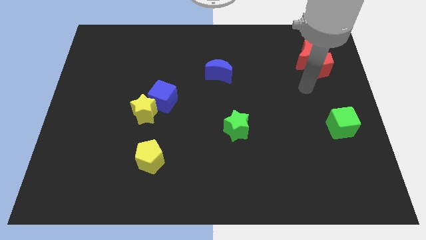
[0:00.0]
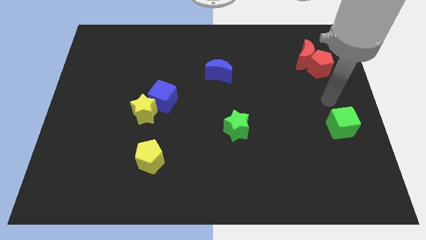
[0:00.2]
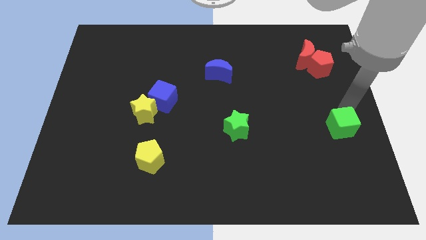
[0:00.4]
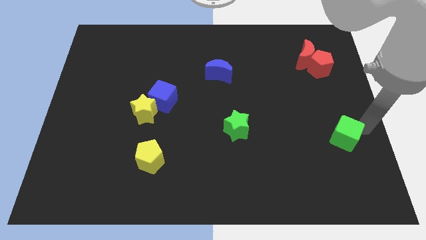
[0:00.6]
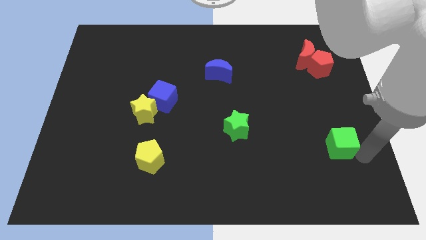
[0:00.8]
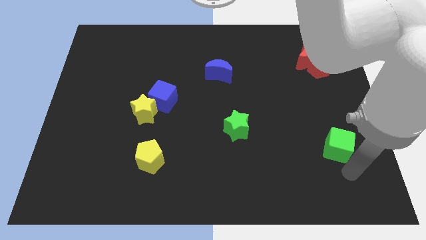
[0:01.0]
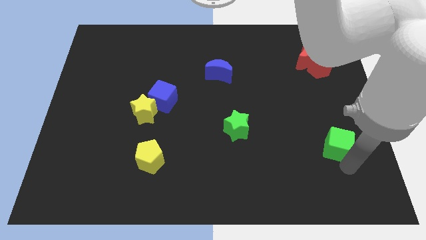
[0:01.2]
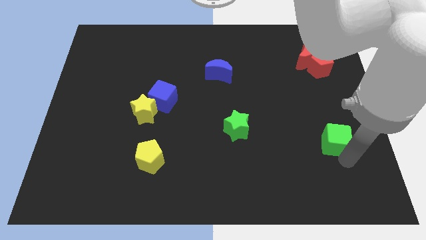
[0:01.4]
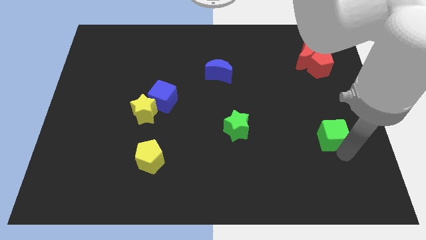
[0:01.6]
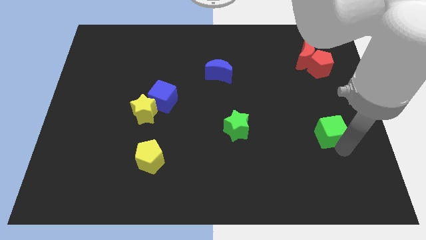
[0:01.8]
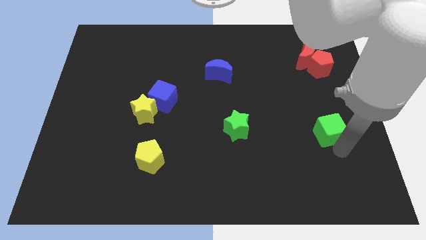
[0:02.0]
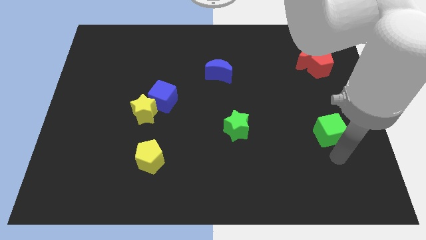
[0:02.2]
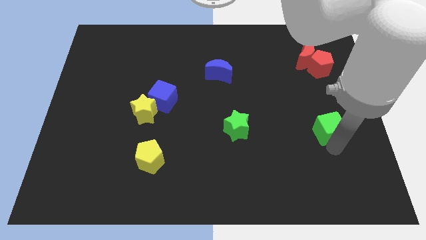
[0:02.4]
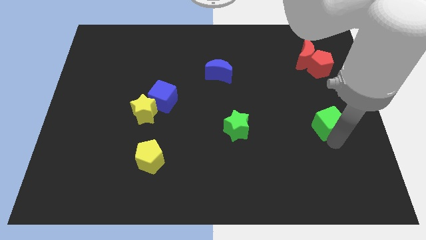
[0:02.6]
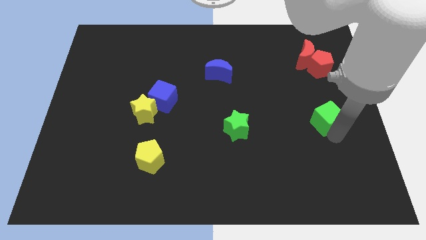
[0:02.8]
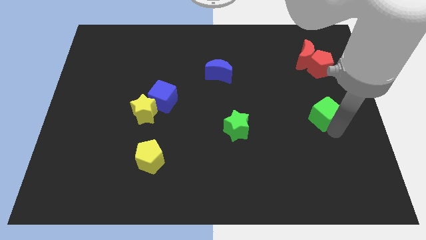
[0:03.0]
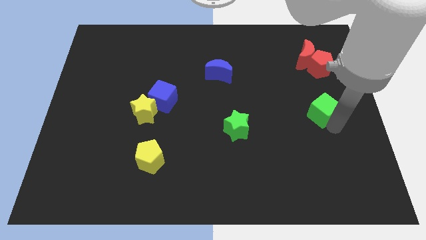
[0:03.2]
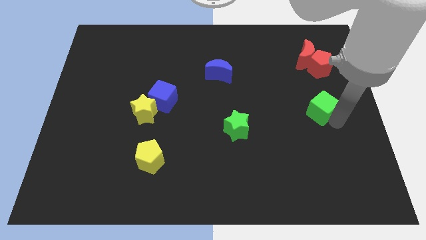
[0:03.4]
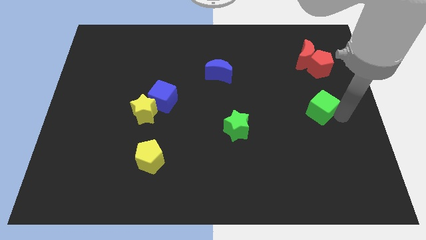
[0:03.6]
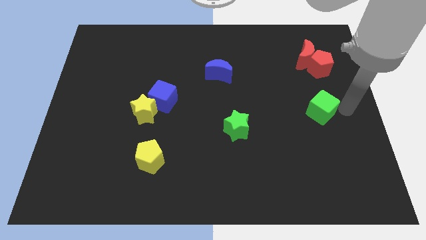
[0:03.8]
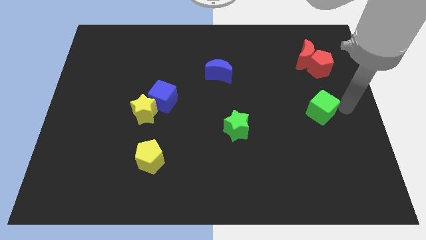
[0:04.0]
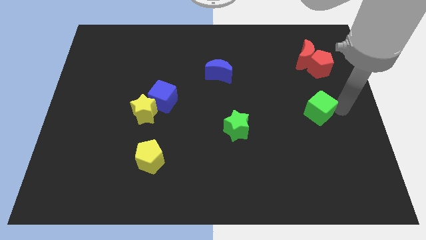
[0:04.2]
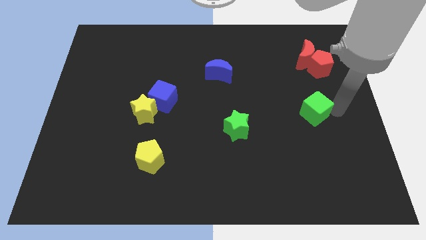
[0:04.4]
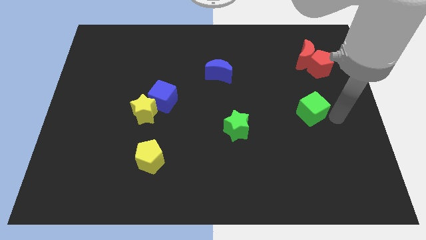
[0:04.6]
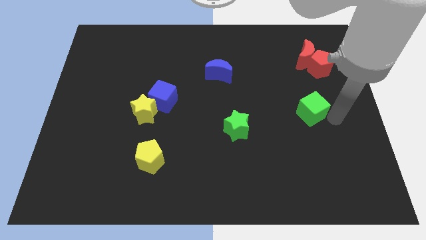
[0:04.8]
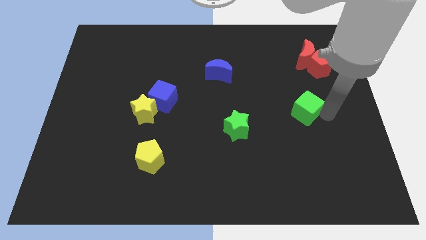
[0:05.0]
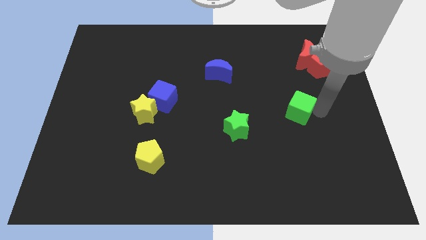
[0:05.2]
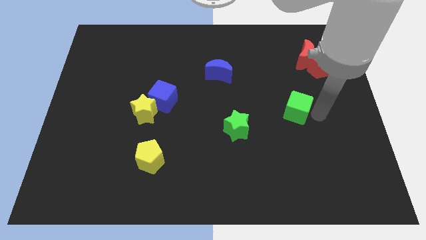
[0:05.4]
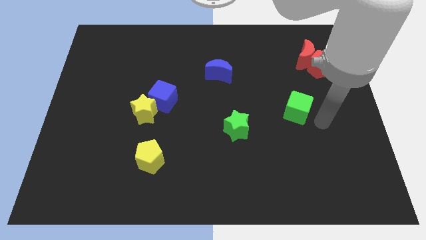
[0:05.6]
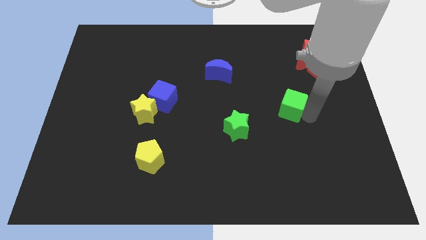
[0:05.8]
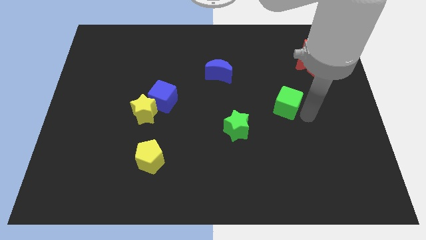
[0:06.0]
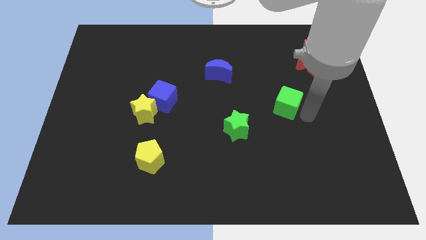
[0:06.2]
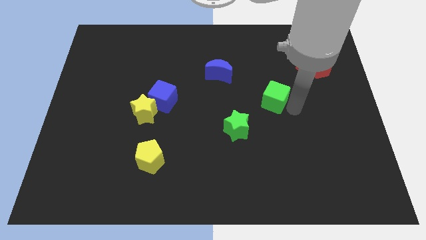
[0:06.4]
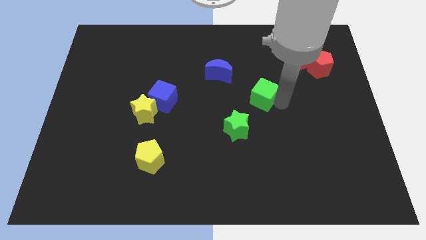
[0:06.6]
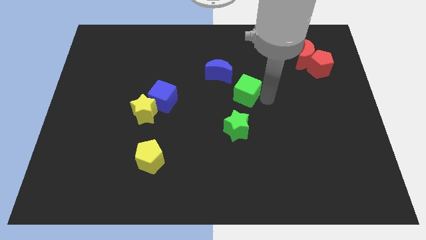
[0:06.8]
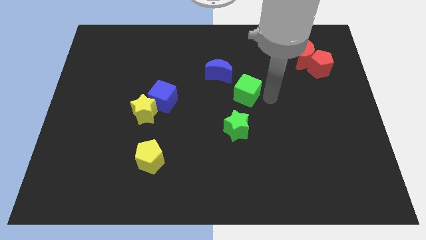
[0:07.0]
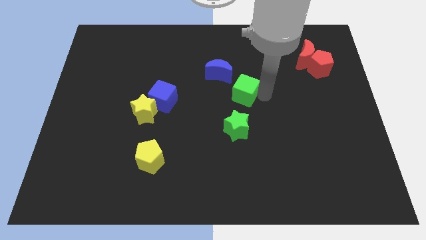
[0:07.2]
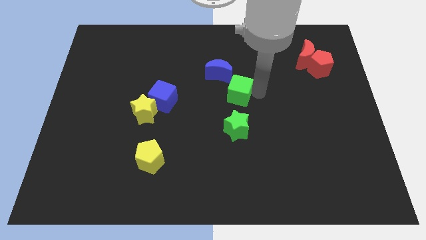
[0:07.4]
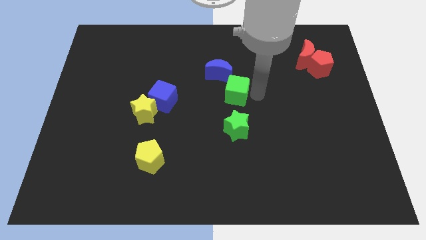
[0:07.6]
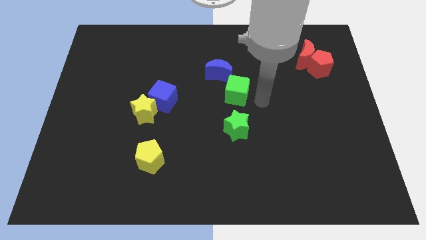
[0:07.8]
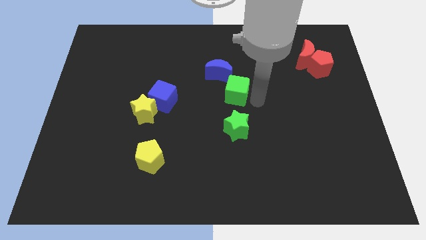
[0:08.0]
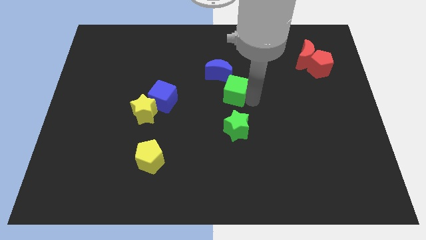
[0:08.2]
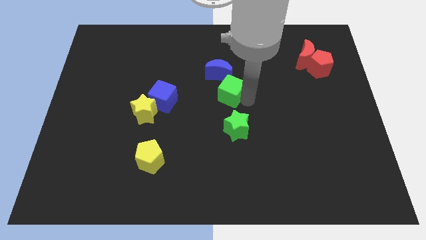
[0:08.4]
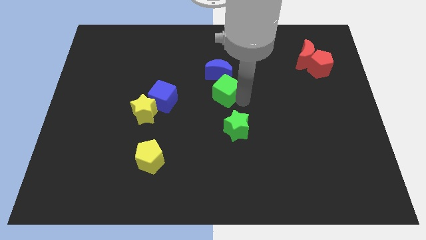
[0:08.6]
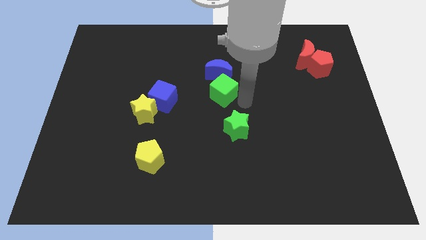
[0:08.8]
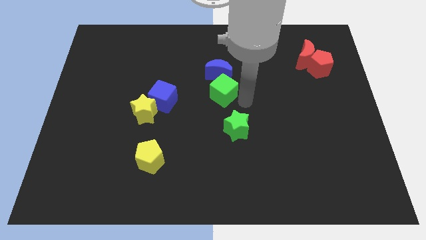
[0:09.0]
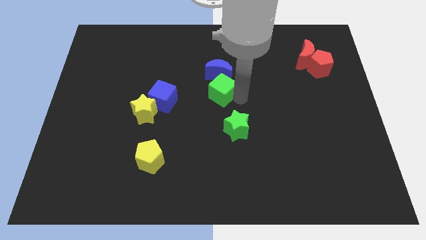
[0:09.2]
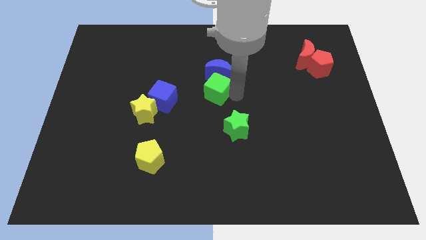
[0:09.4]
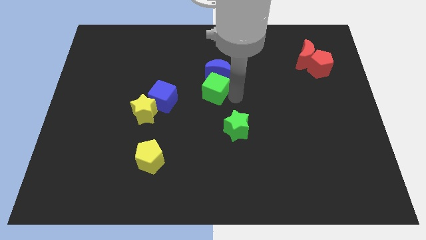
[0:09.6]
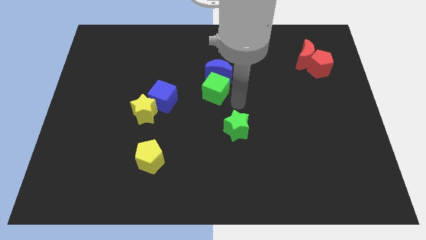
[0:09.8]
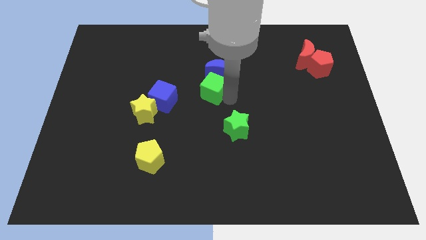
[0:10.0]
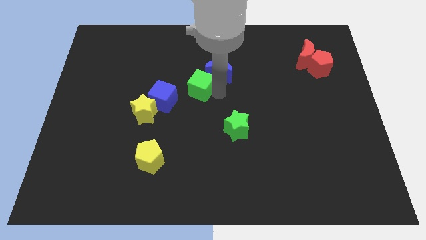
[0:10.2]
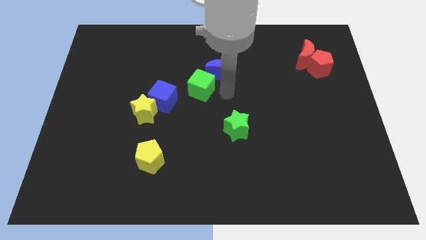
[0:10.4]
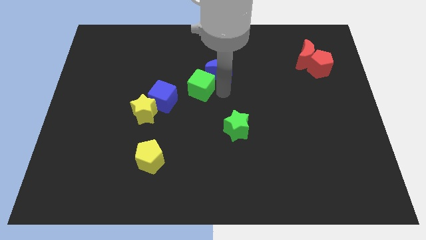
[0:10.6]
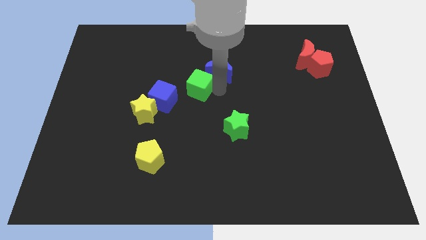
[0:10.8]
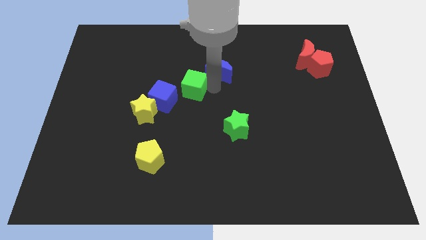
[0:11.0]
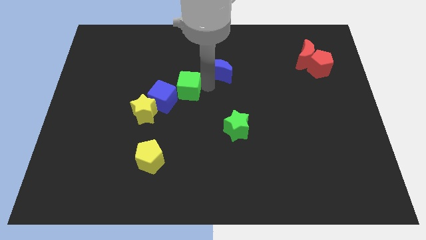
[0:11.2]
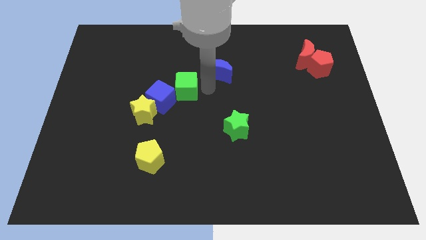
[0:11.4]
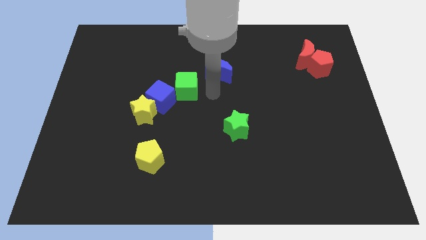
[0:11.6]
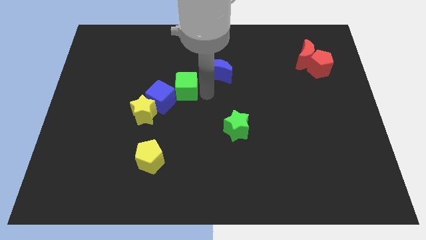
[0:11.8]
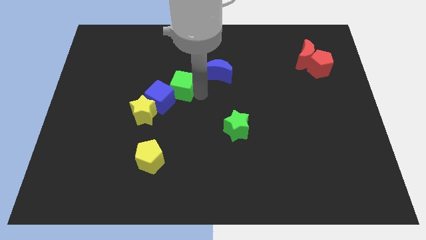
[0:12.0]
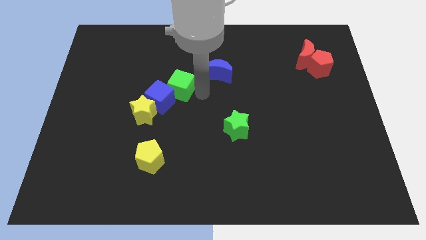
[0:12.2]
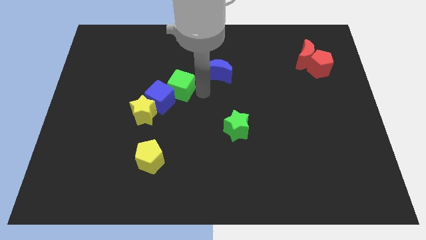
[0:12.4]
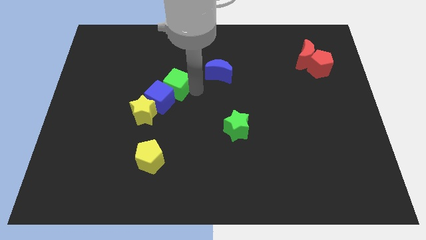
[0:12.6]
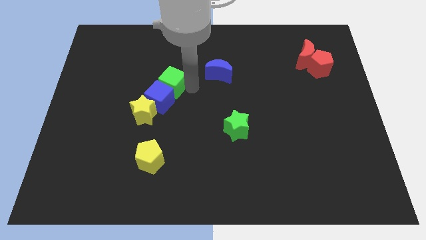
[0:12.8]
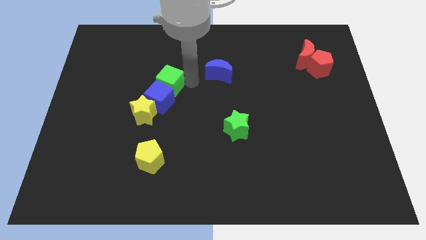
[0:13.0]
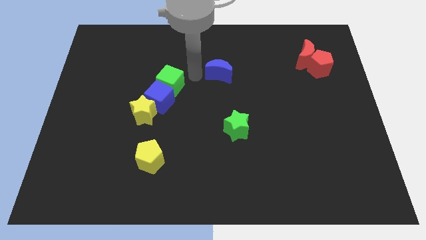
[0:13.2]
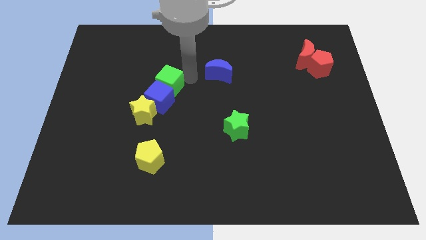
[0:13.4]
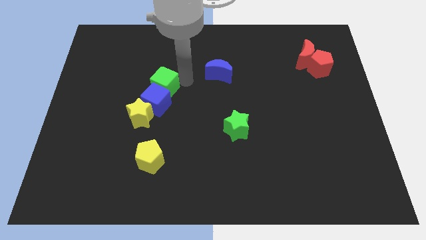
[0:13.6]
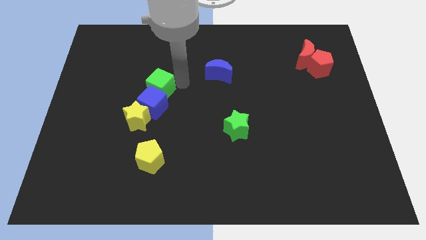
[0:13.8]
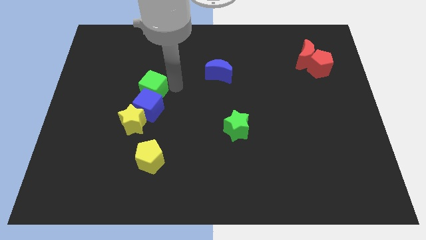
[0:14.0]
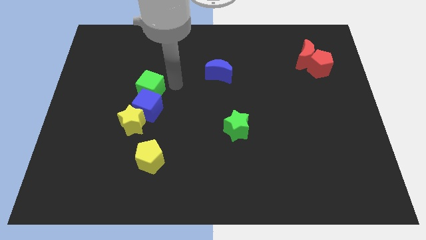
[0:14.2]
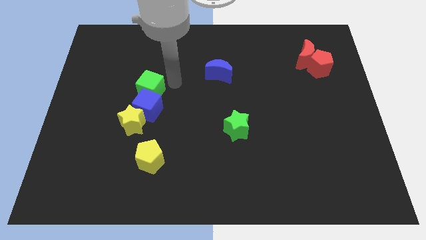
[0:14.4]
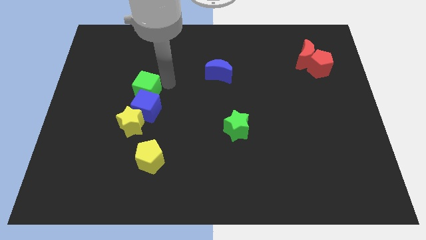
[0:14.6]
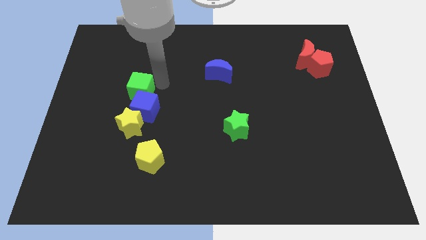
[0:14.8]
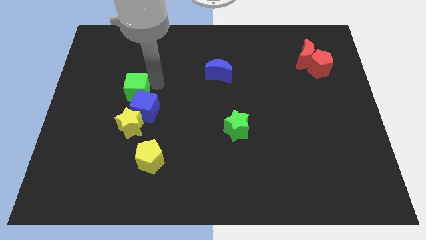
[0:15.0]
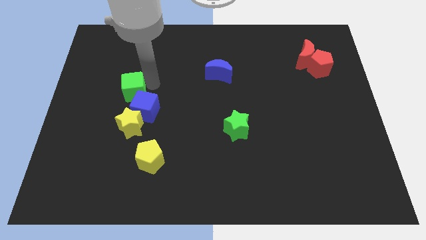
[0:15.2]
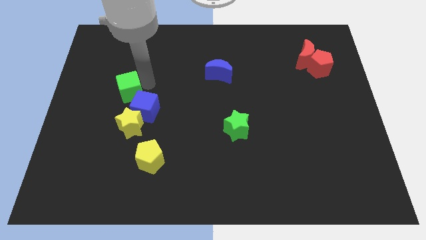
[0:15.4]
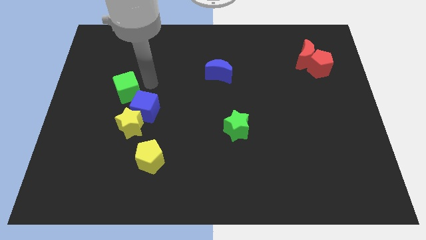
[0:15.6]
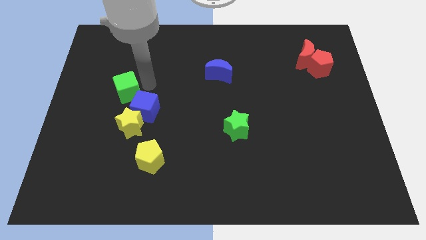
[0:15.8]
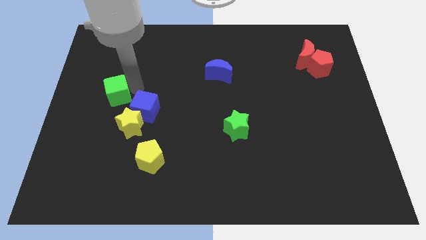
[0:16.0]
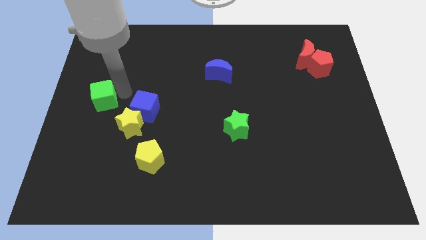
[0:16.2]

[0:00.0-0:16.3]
slide the green cube to the left side
